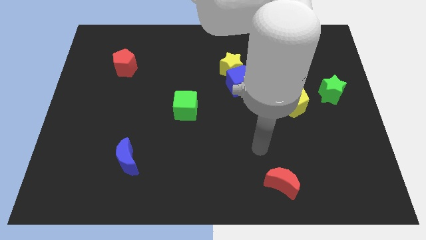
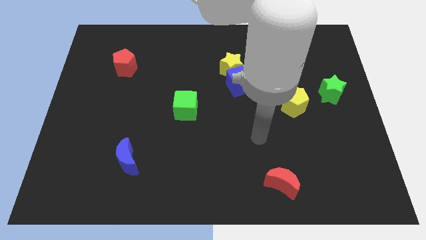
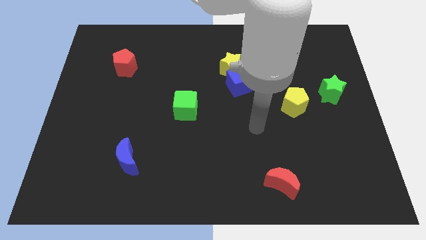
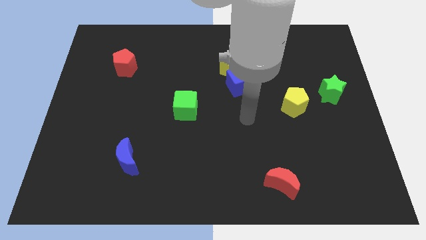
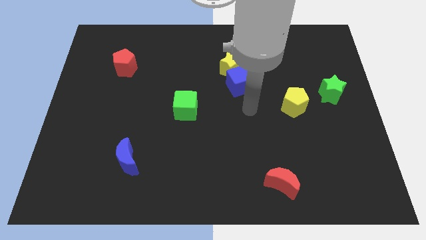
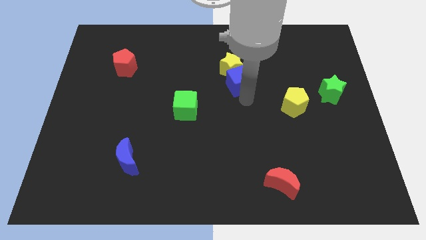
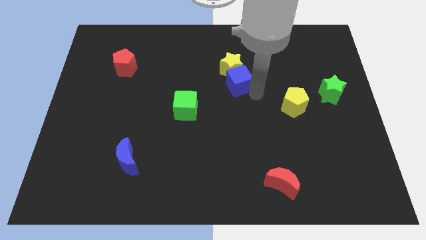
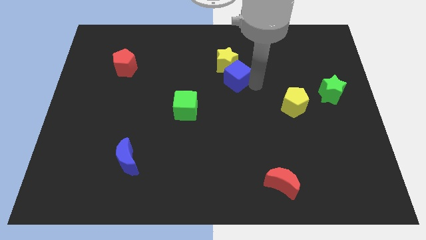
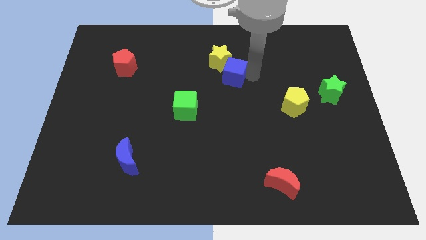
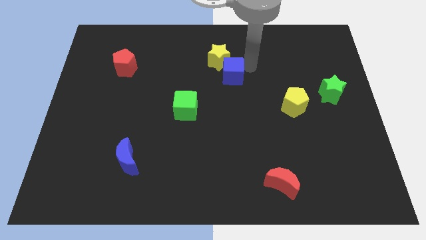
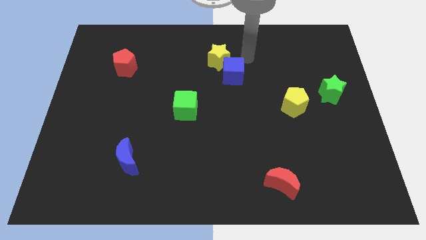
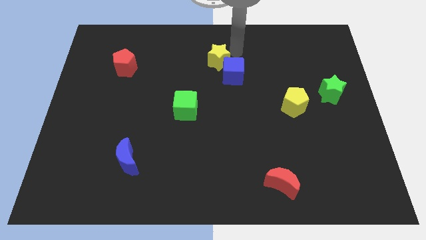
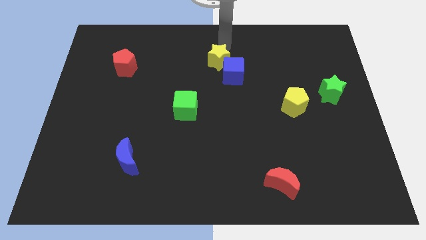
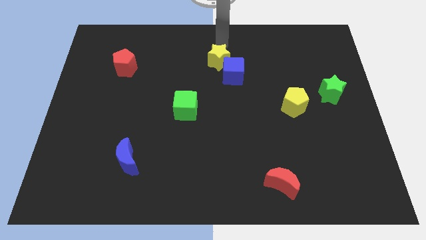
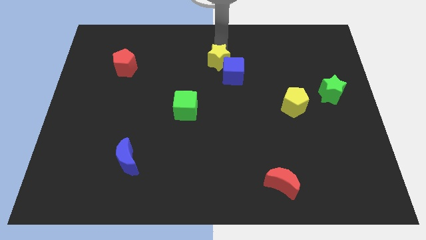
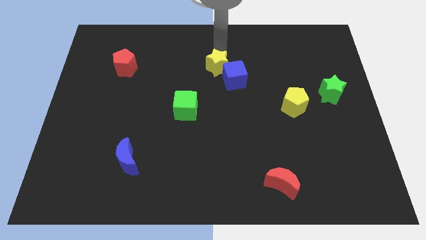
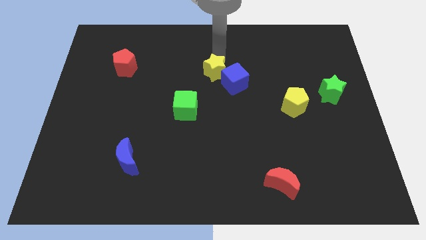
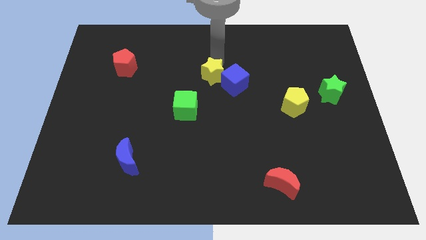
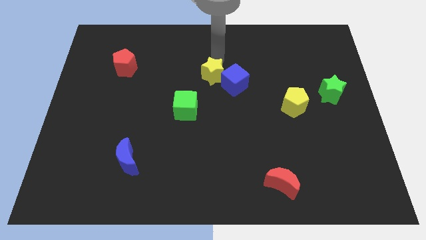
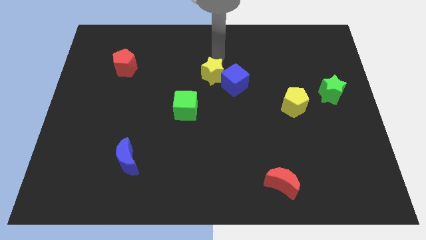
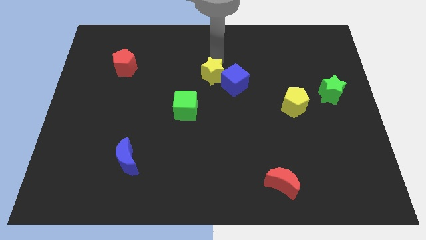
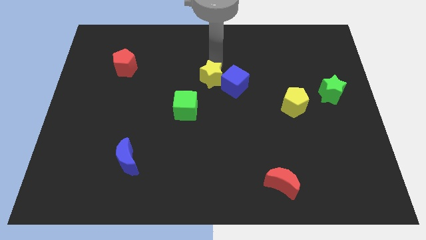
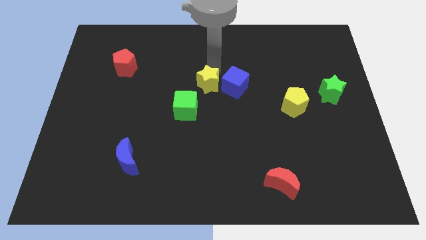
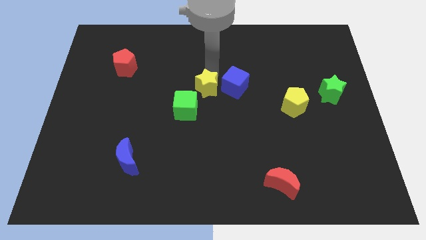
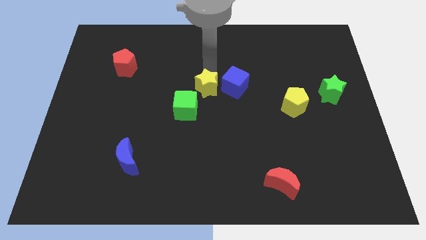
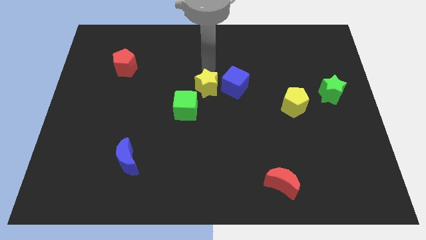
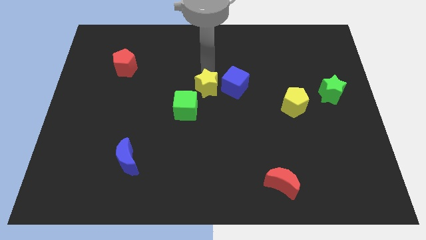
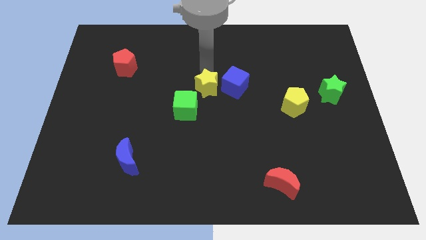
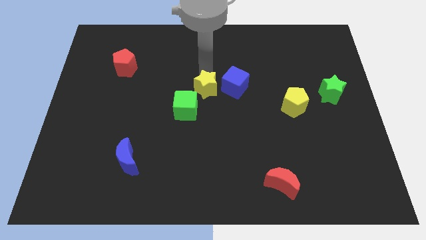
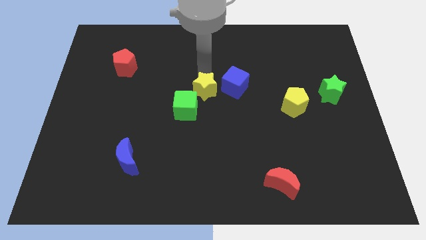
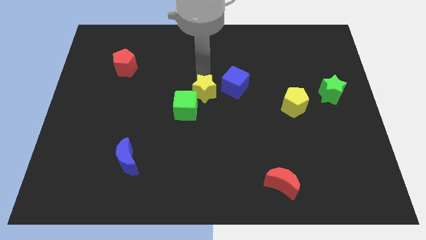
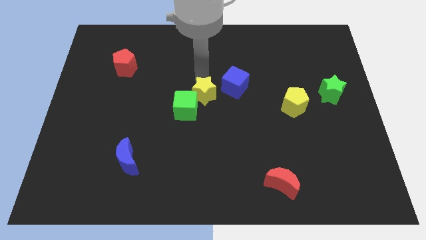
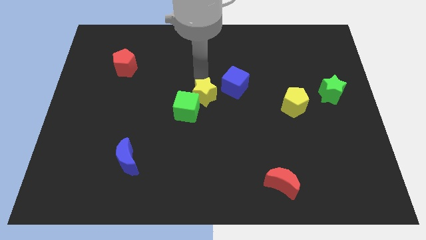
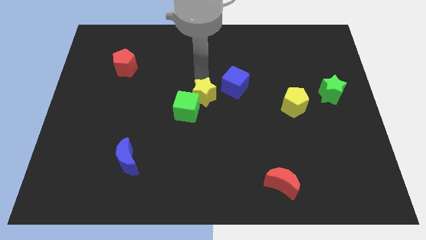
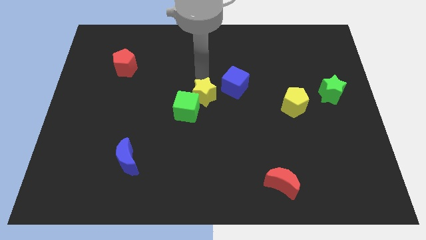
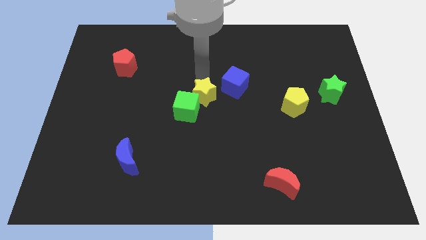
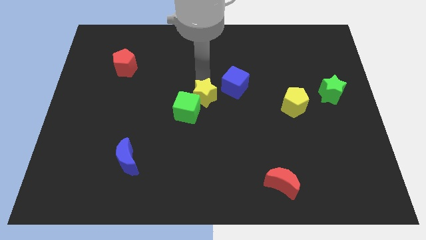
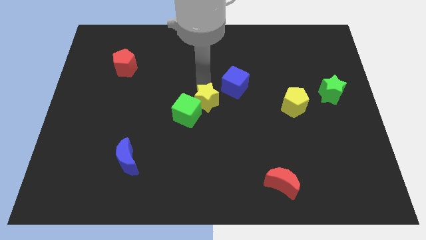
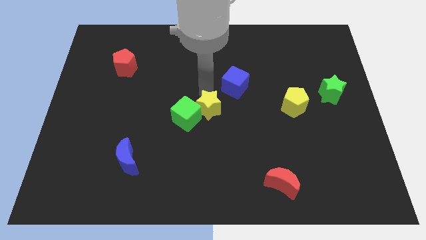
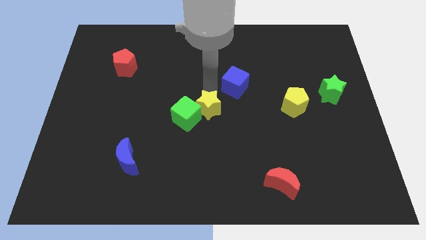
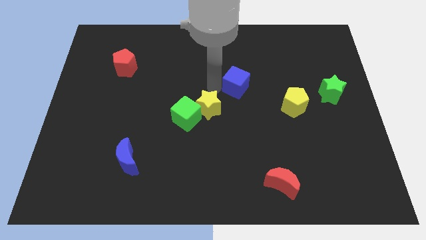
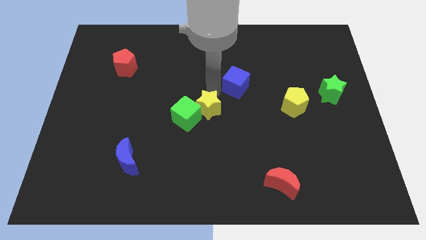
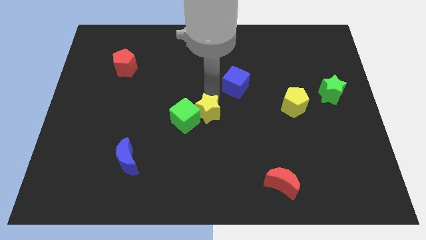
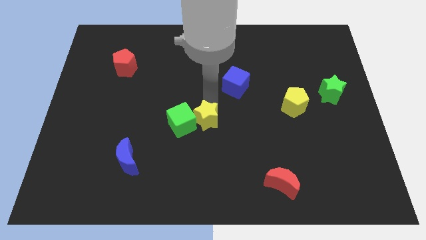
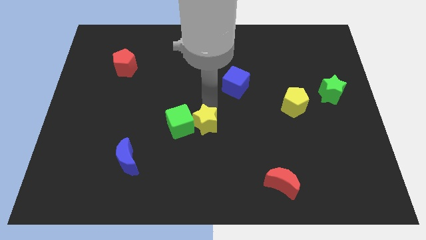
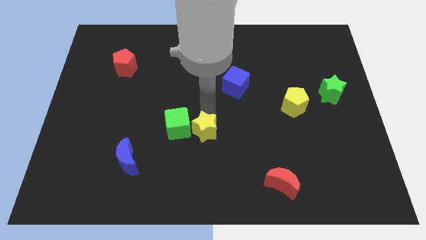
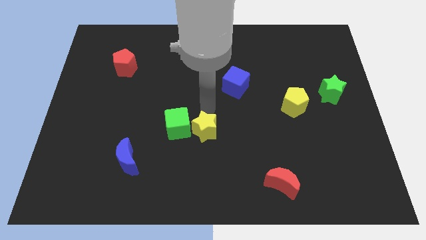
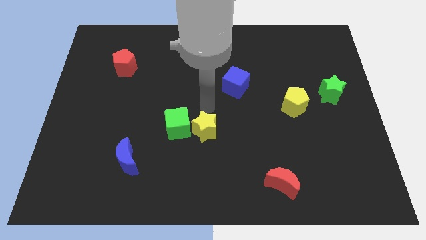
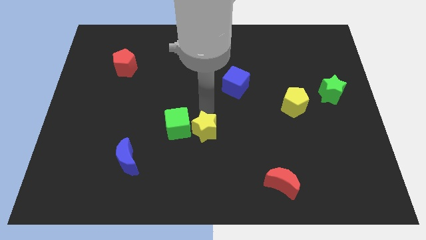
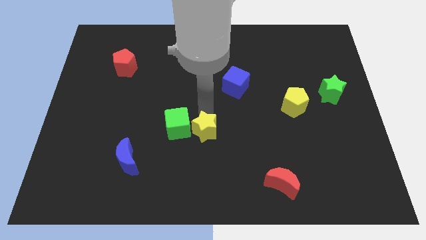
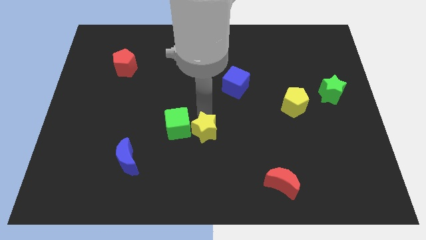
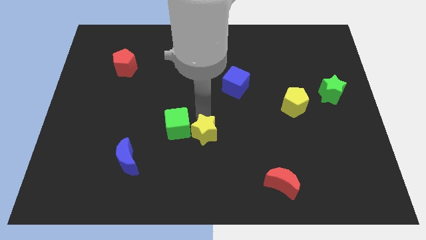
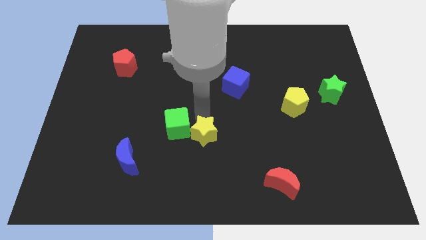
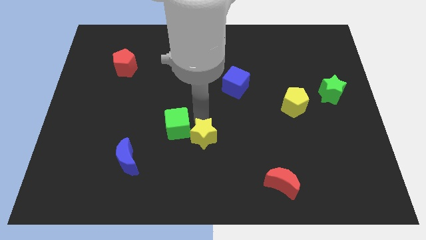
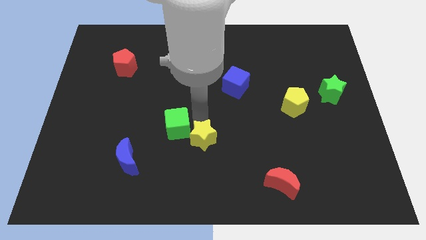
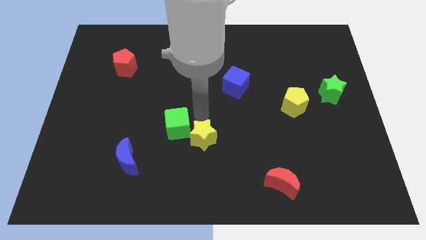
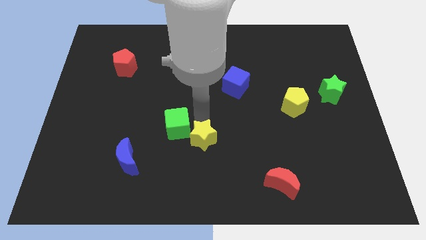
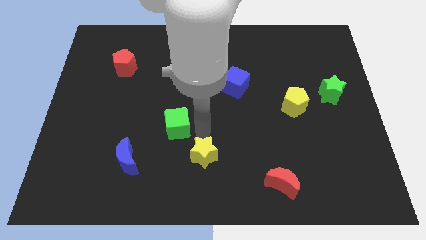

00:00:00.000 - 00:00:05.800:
move the yellow star to the bottom

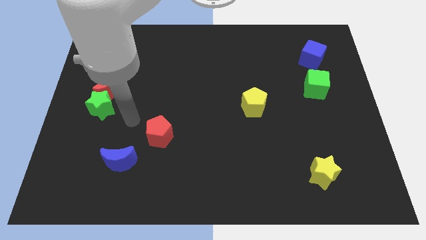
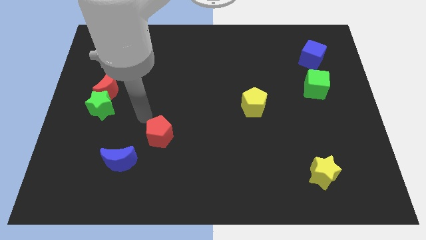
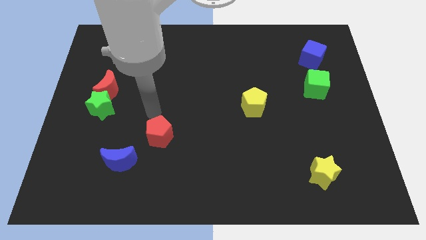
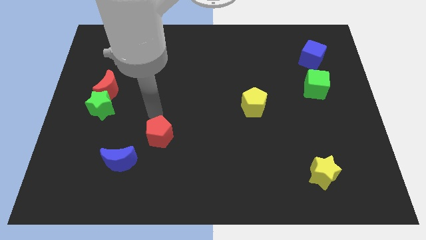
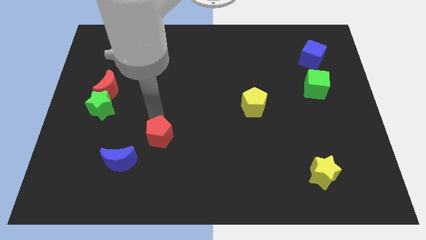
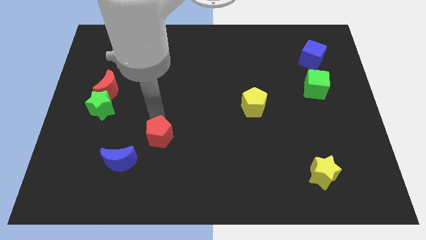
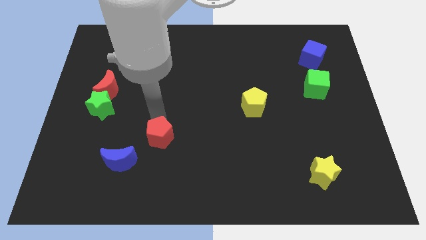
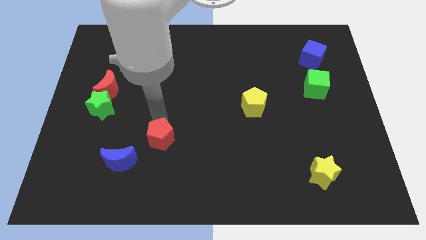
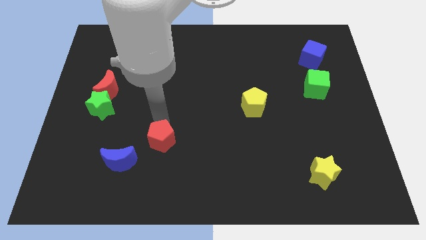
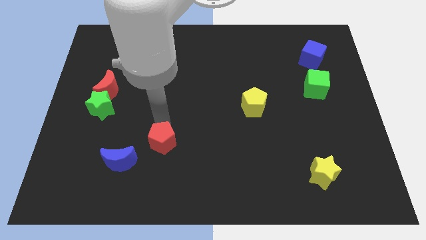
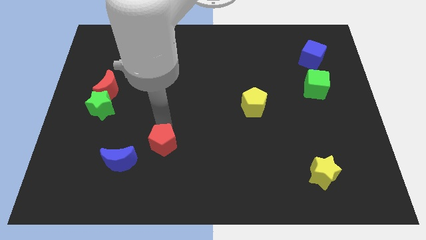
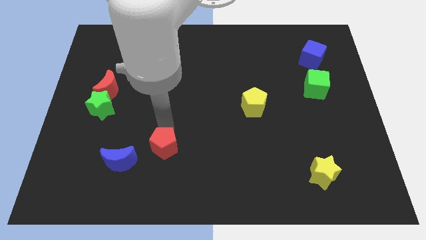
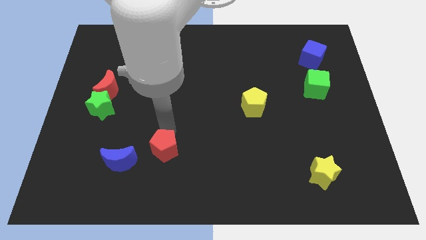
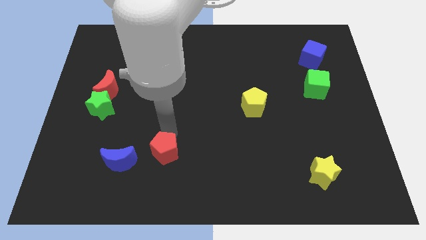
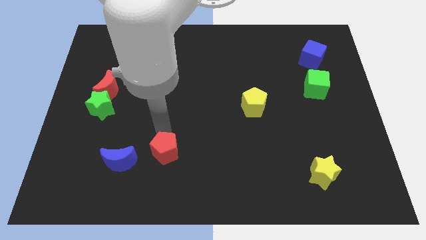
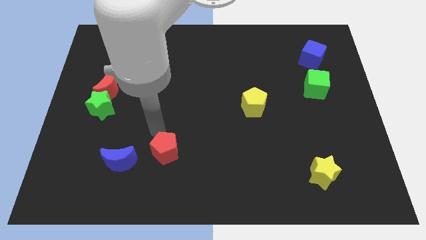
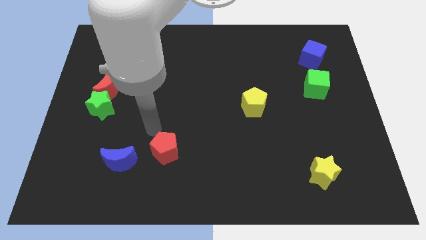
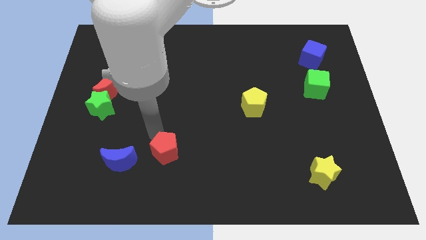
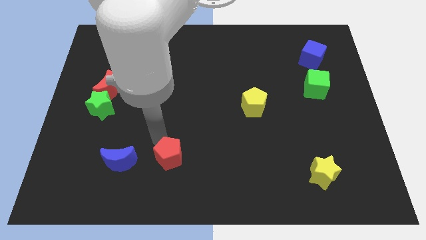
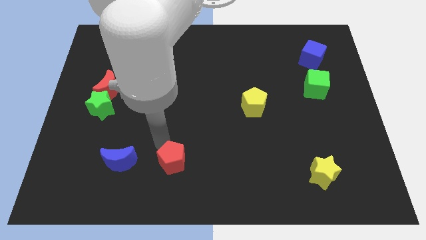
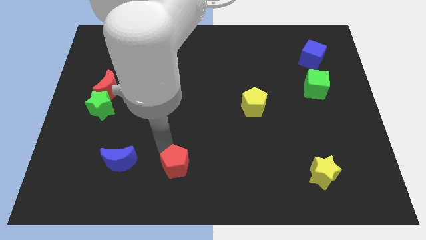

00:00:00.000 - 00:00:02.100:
move the red pentagon to the bottom
